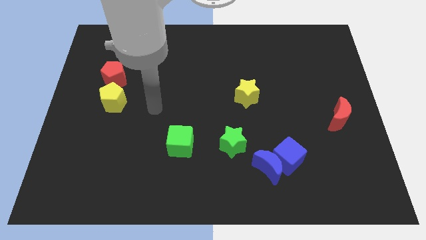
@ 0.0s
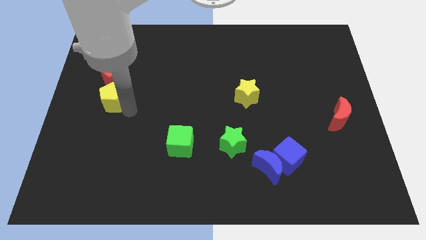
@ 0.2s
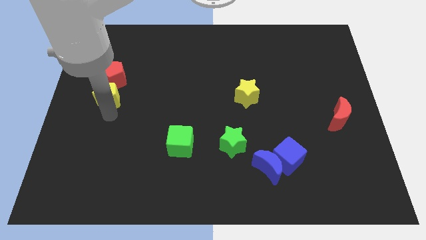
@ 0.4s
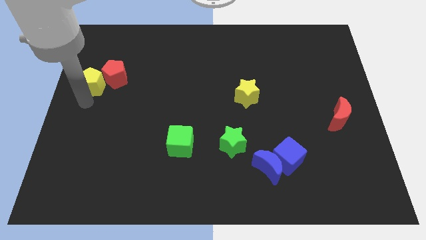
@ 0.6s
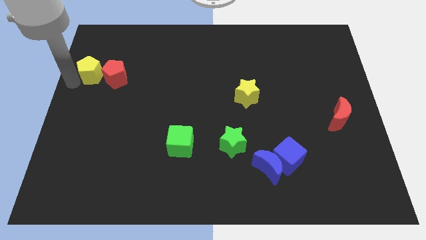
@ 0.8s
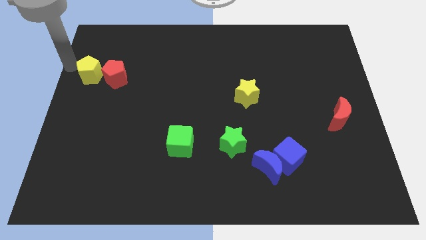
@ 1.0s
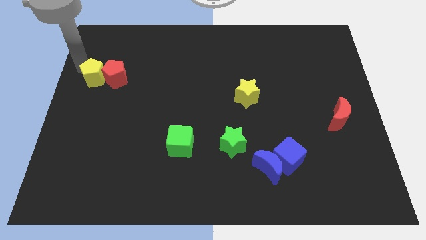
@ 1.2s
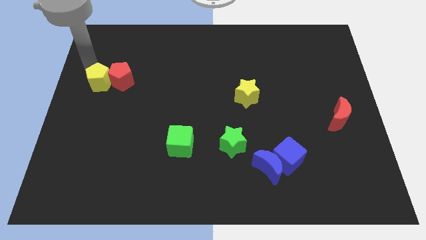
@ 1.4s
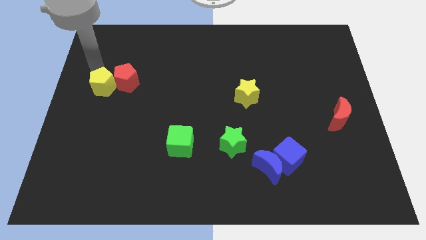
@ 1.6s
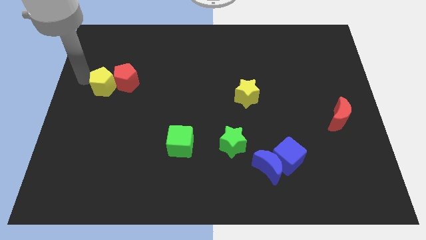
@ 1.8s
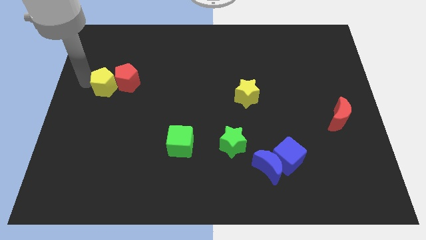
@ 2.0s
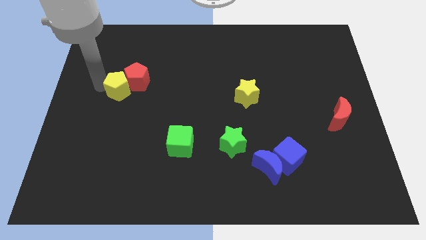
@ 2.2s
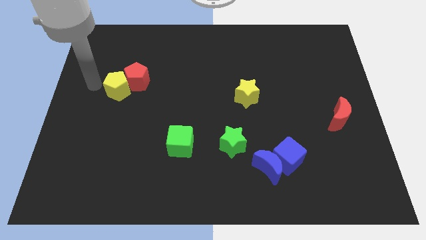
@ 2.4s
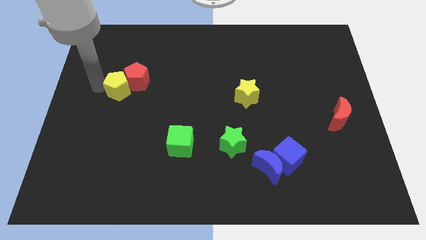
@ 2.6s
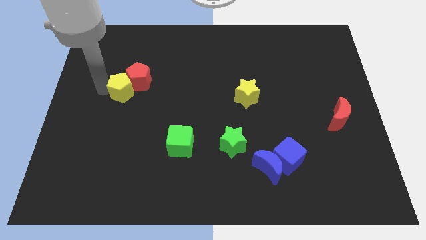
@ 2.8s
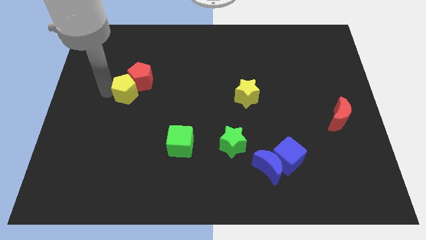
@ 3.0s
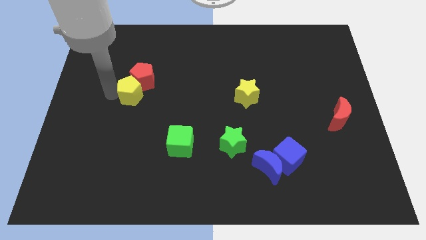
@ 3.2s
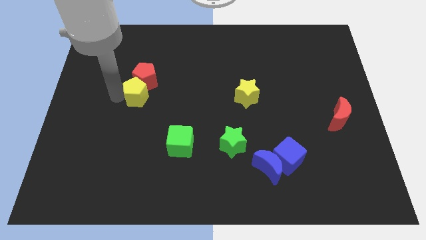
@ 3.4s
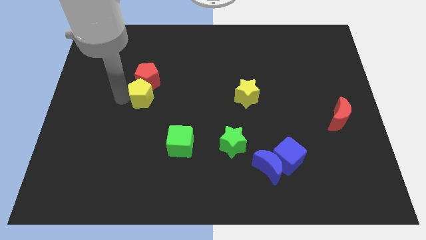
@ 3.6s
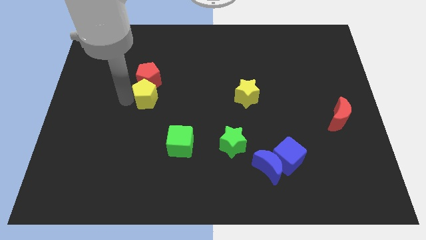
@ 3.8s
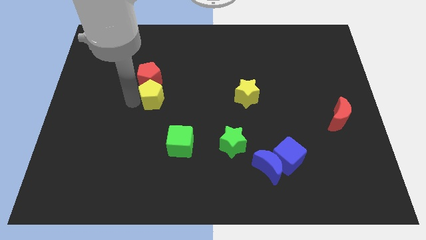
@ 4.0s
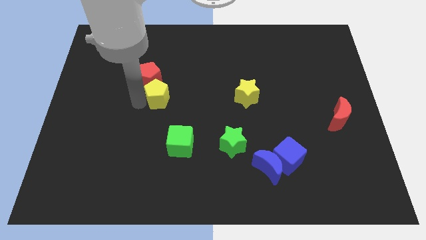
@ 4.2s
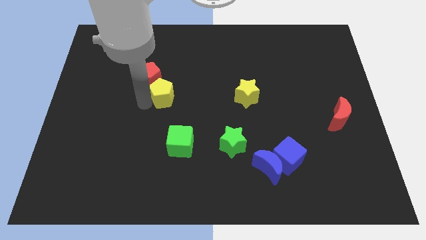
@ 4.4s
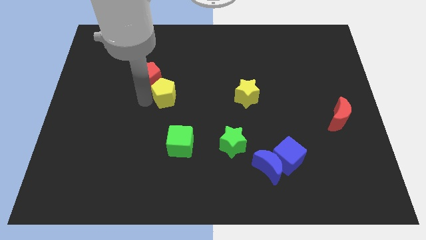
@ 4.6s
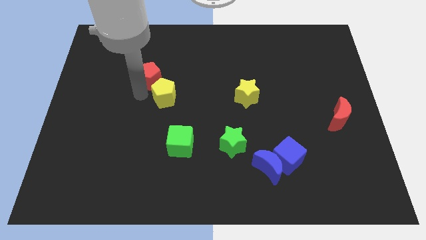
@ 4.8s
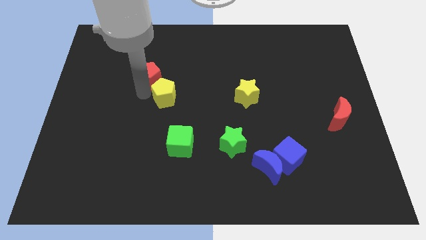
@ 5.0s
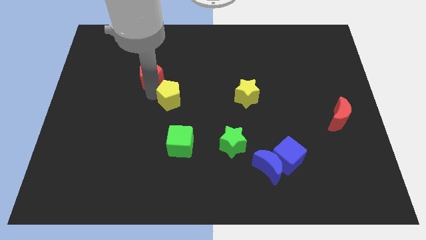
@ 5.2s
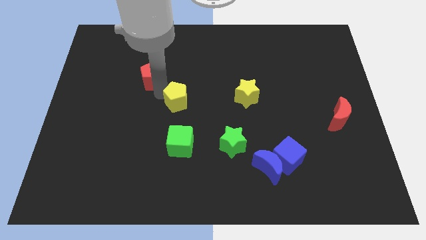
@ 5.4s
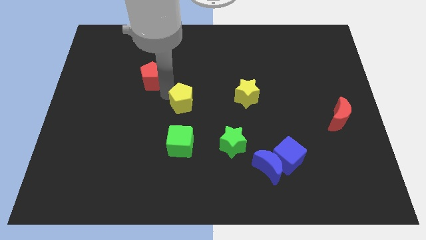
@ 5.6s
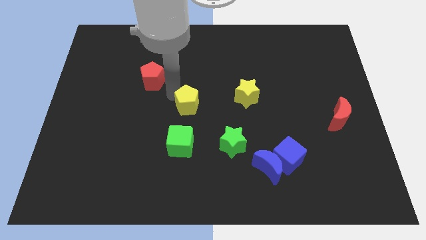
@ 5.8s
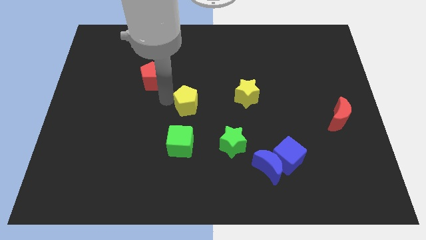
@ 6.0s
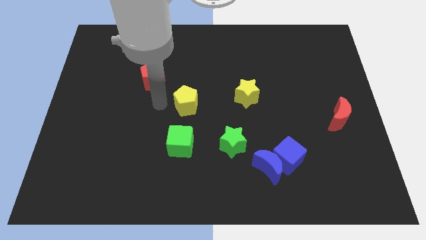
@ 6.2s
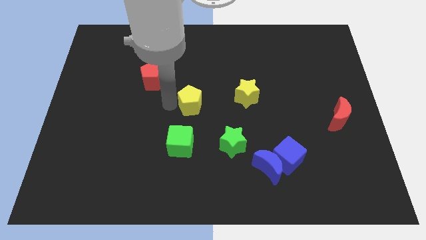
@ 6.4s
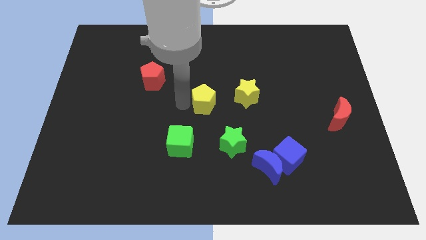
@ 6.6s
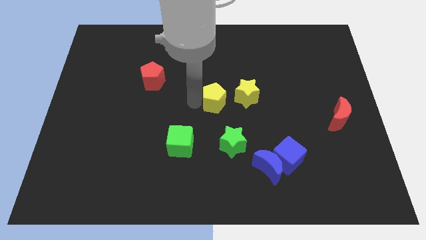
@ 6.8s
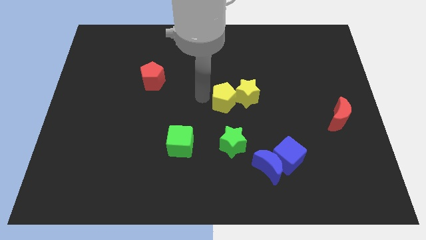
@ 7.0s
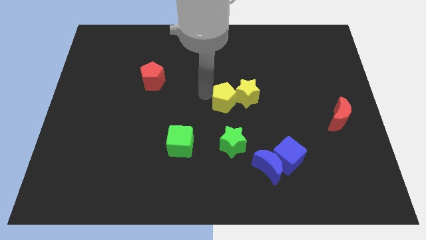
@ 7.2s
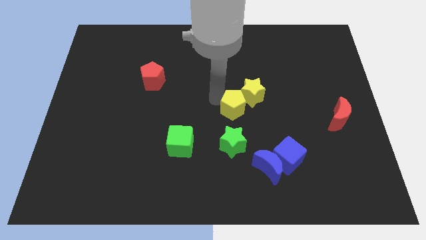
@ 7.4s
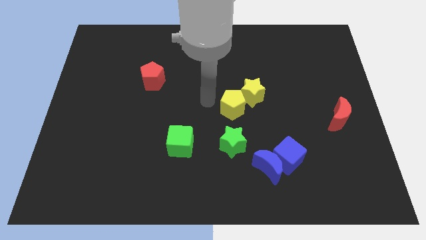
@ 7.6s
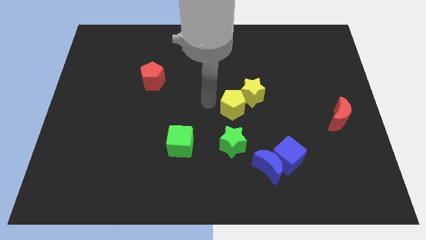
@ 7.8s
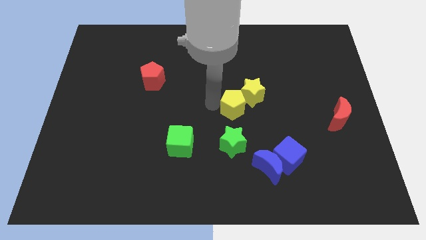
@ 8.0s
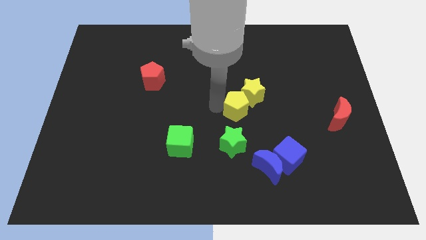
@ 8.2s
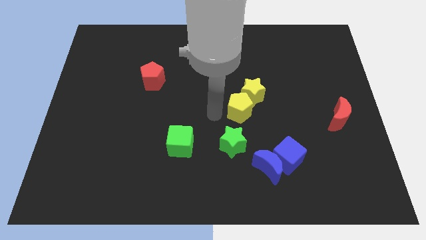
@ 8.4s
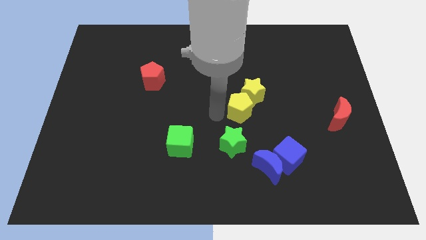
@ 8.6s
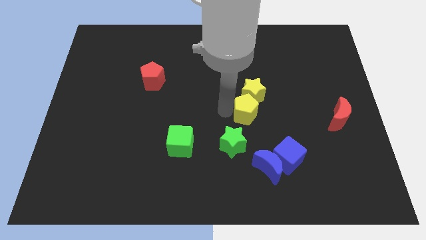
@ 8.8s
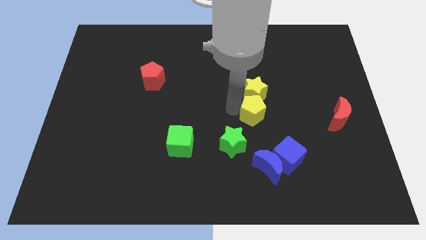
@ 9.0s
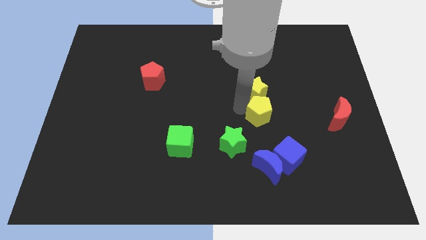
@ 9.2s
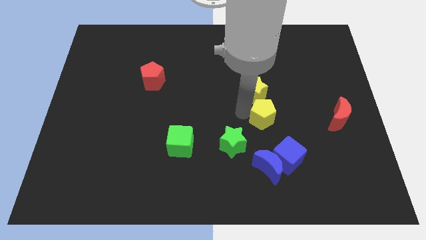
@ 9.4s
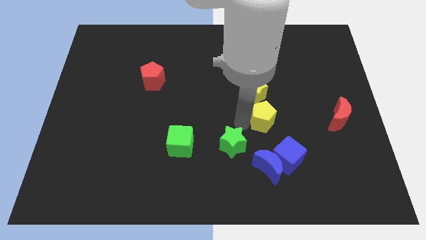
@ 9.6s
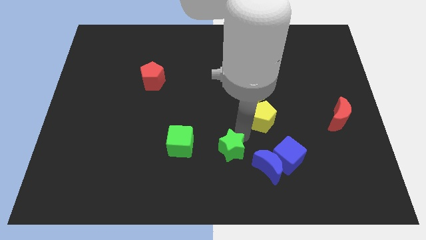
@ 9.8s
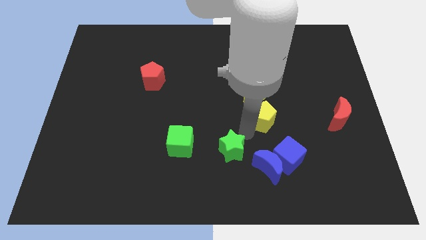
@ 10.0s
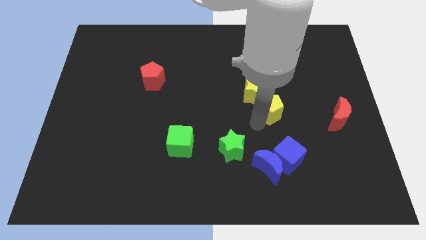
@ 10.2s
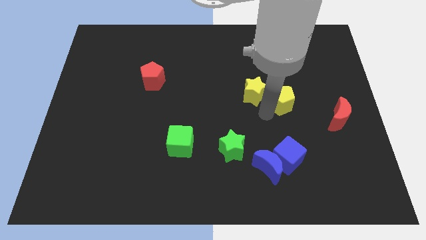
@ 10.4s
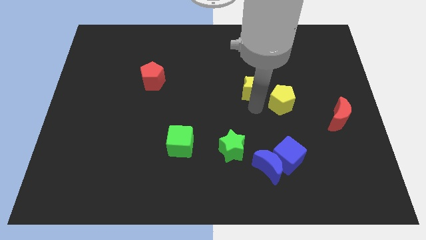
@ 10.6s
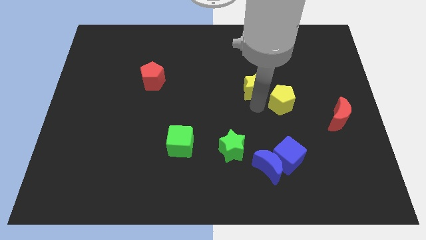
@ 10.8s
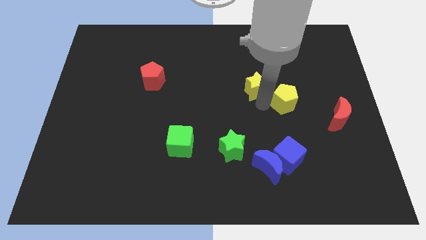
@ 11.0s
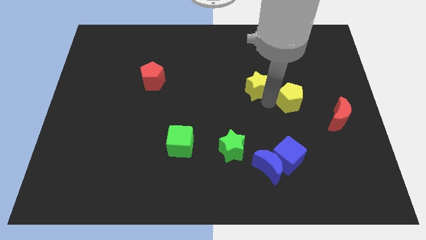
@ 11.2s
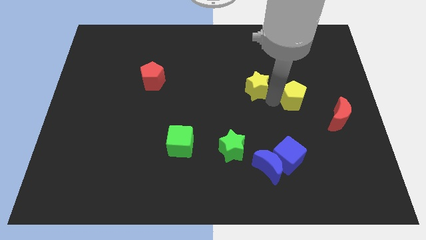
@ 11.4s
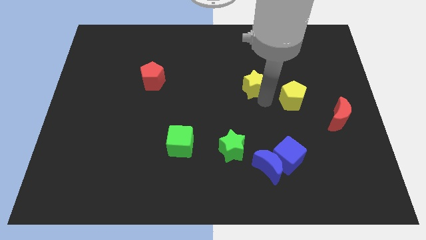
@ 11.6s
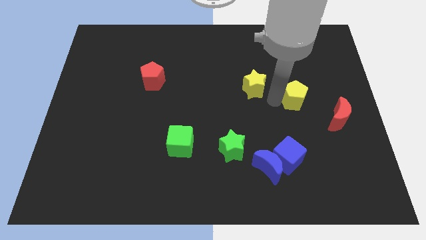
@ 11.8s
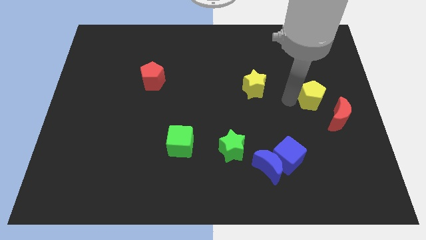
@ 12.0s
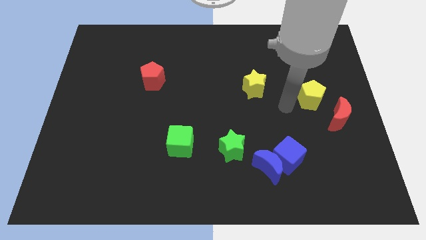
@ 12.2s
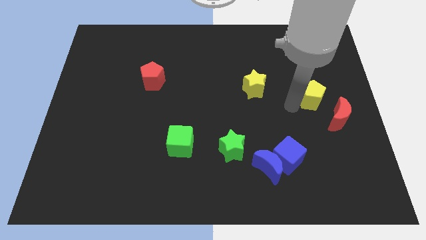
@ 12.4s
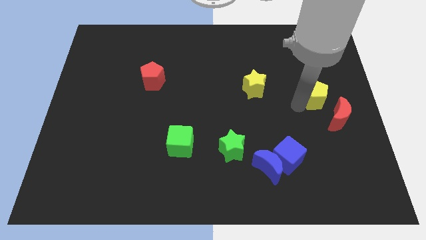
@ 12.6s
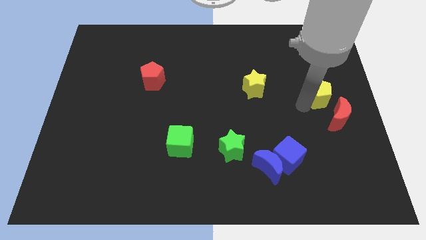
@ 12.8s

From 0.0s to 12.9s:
slide the yellow pentagon to the right side of the board
